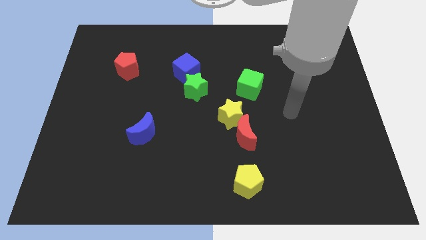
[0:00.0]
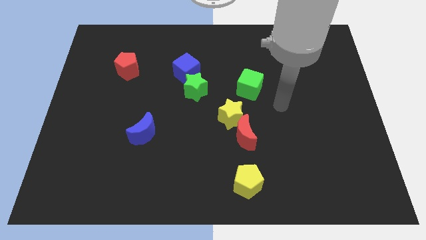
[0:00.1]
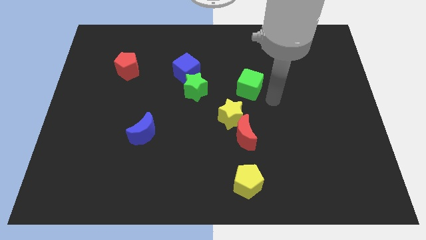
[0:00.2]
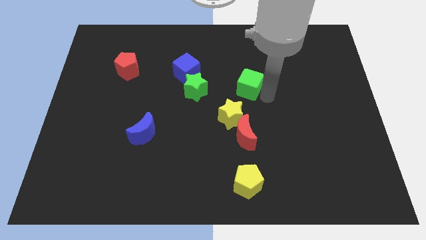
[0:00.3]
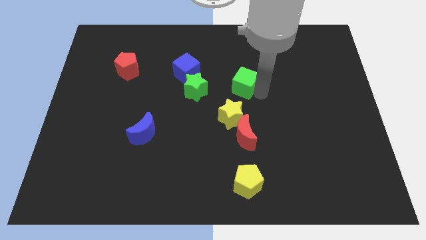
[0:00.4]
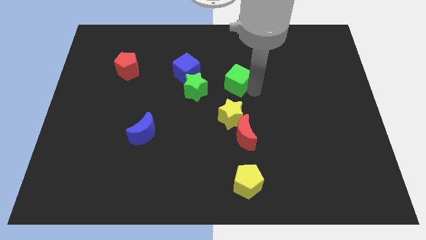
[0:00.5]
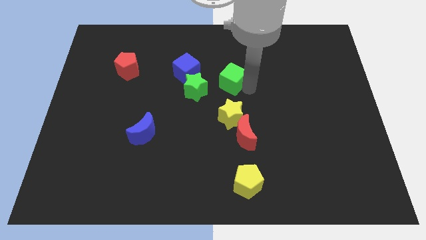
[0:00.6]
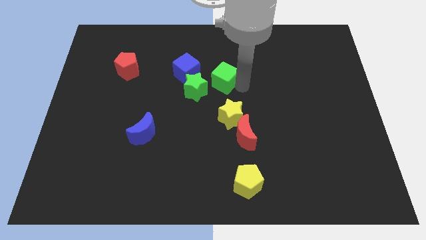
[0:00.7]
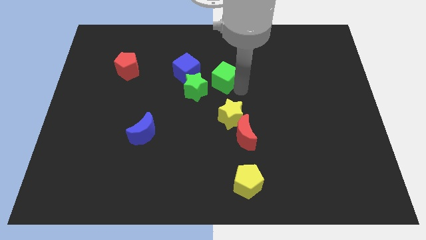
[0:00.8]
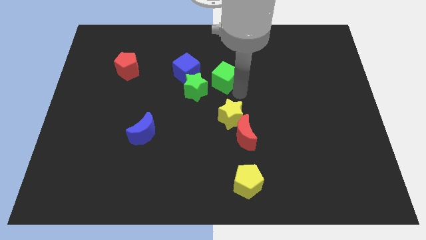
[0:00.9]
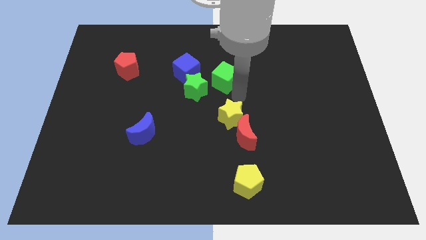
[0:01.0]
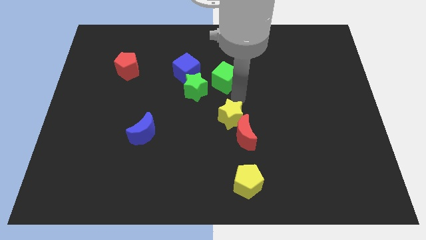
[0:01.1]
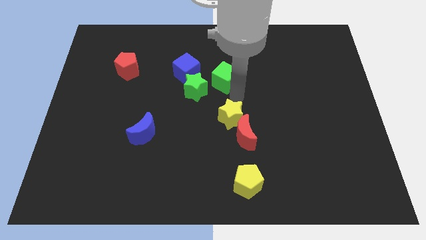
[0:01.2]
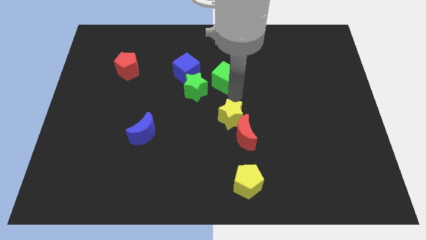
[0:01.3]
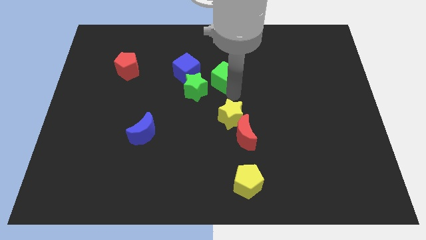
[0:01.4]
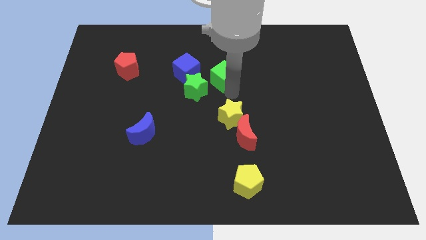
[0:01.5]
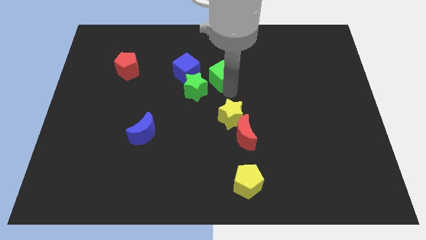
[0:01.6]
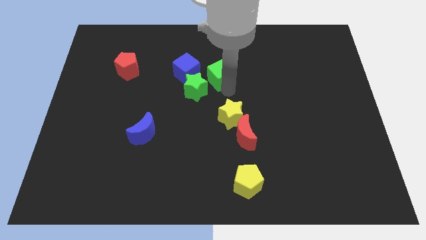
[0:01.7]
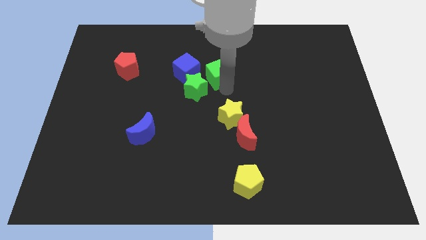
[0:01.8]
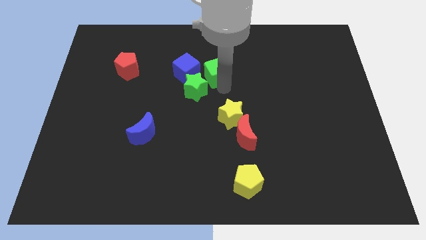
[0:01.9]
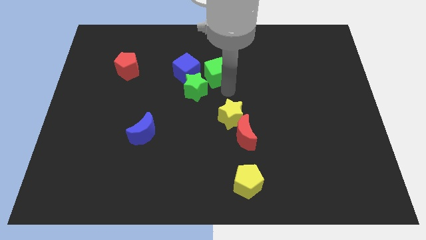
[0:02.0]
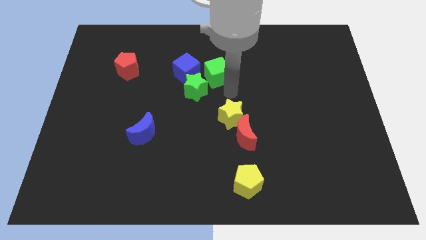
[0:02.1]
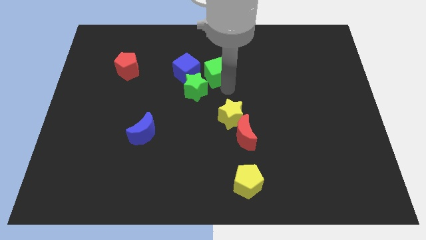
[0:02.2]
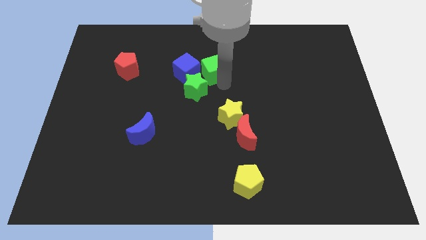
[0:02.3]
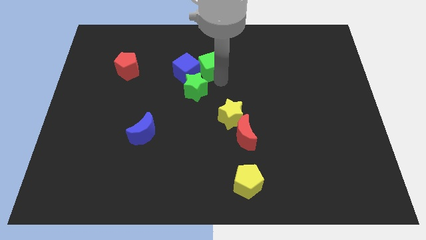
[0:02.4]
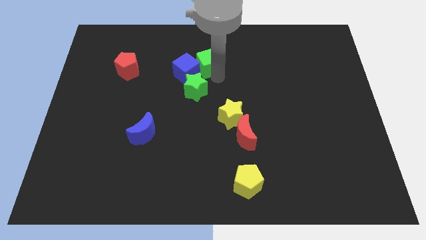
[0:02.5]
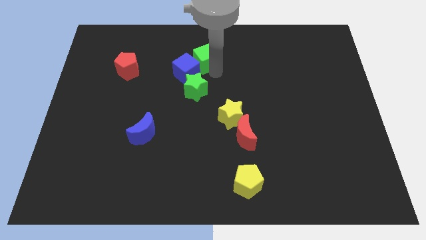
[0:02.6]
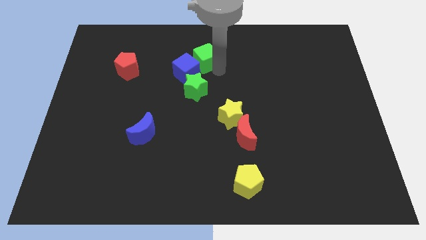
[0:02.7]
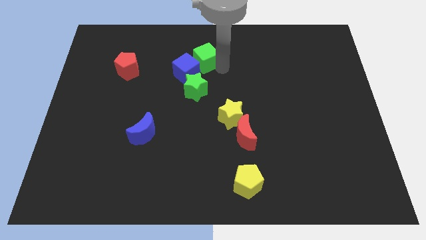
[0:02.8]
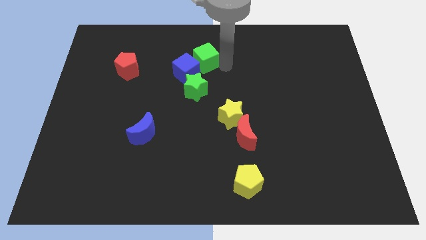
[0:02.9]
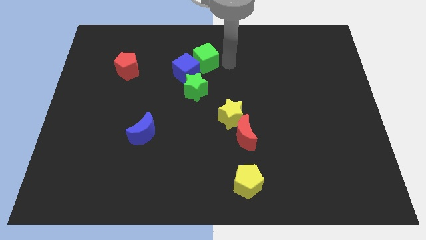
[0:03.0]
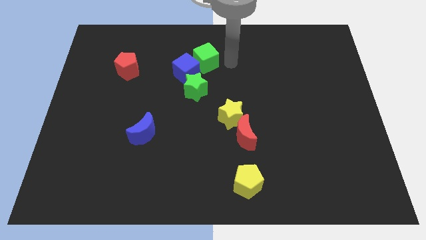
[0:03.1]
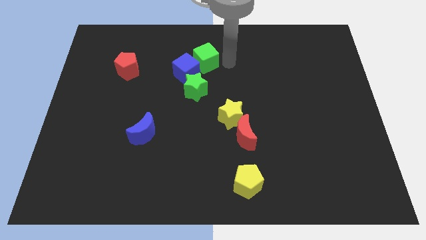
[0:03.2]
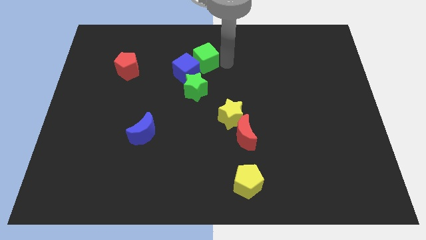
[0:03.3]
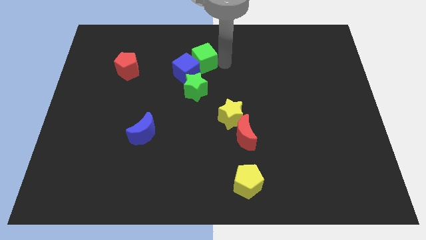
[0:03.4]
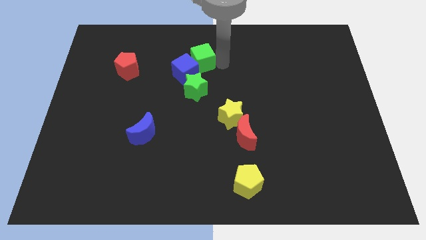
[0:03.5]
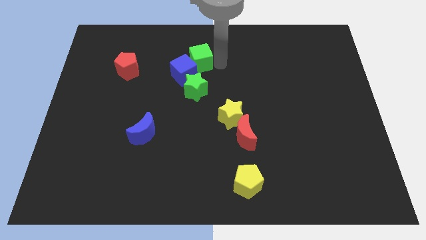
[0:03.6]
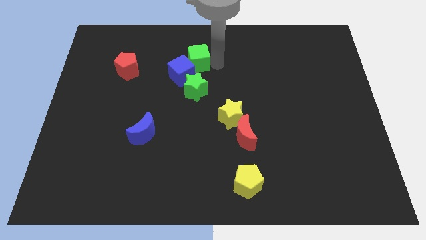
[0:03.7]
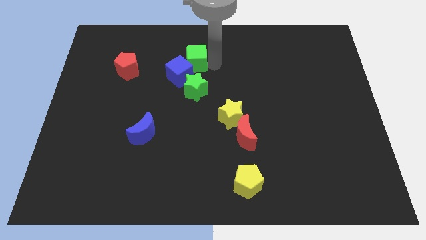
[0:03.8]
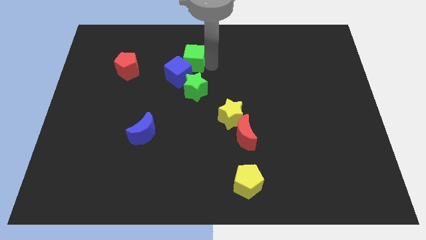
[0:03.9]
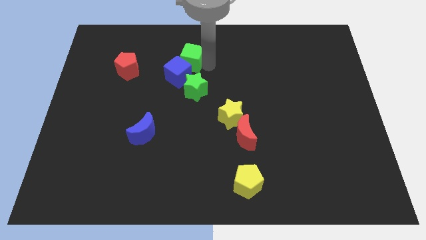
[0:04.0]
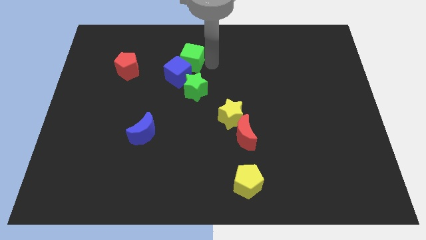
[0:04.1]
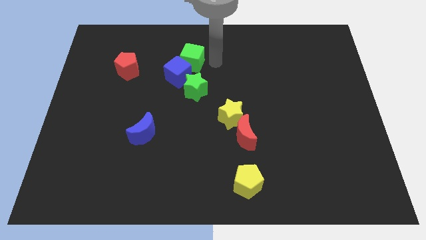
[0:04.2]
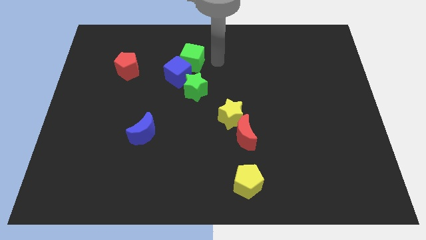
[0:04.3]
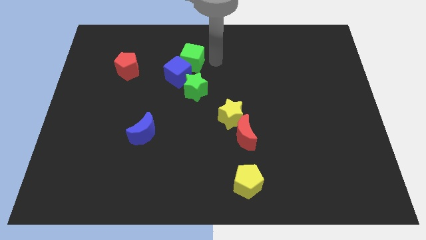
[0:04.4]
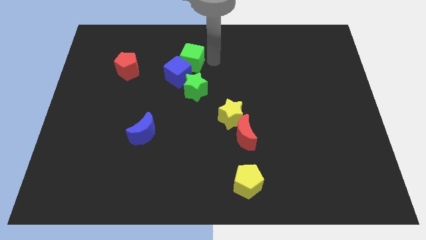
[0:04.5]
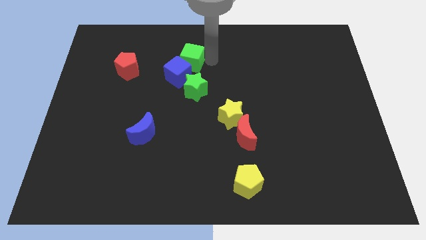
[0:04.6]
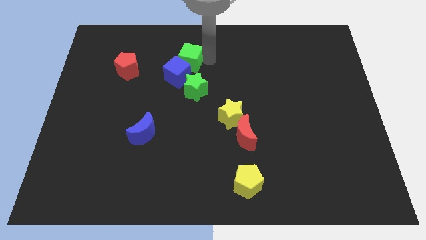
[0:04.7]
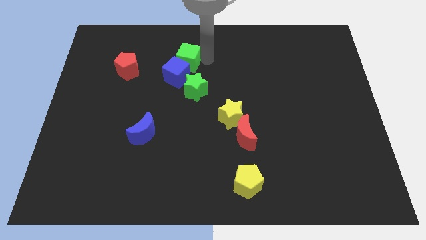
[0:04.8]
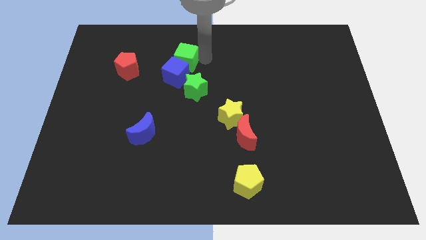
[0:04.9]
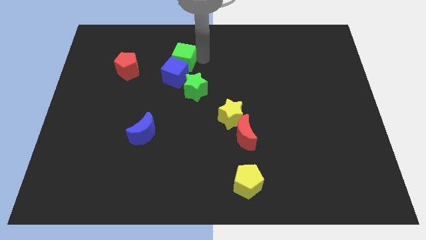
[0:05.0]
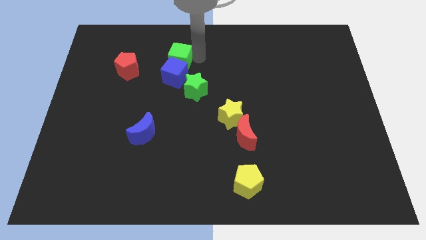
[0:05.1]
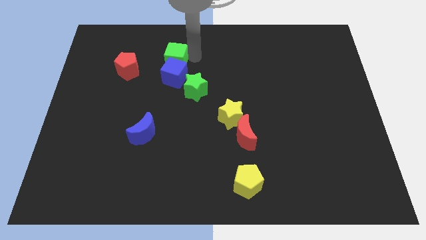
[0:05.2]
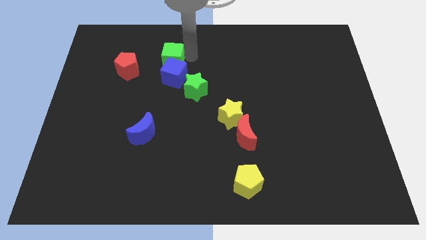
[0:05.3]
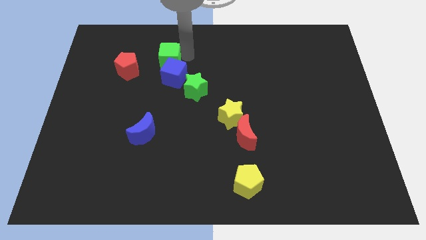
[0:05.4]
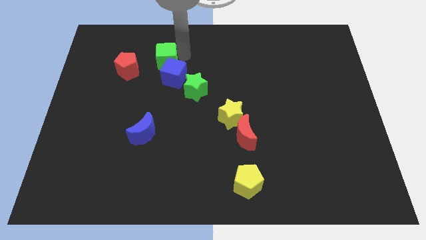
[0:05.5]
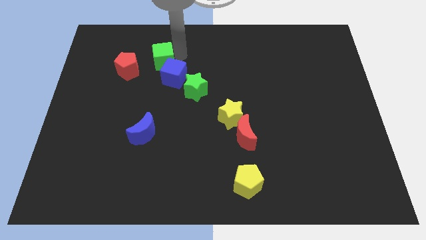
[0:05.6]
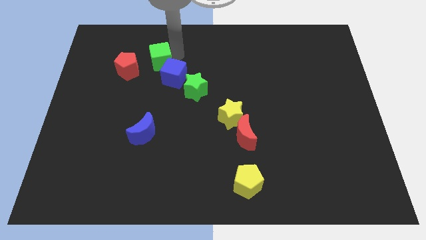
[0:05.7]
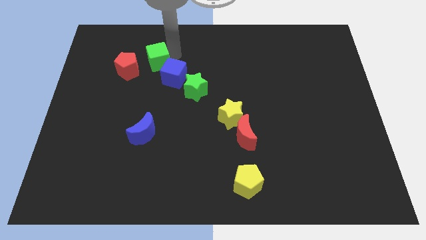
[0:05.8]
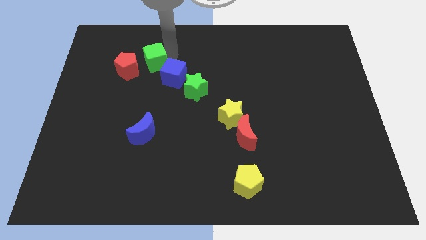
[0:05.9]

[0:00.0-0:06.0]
push the green cube left

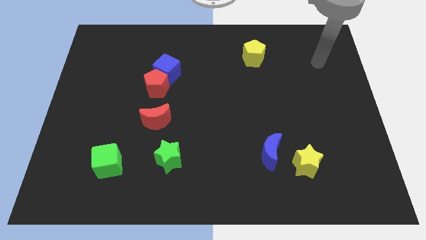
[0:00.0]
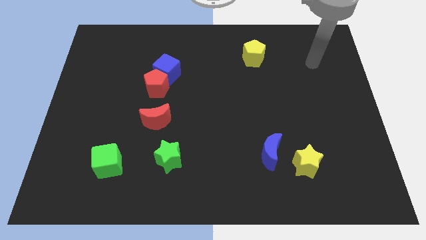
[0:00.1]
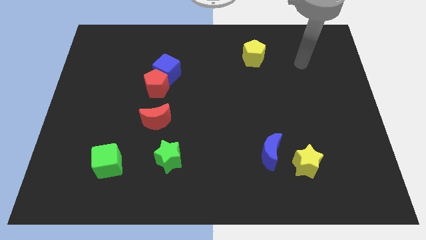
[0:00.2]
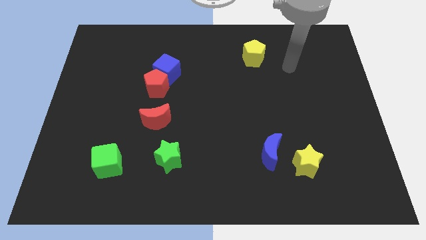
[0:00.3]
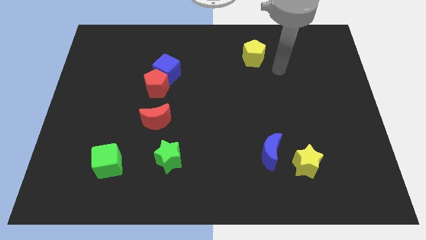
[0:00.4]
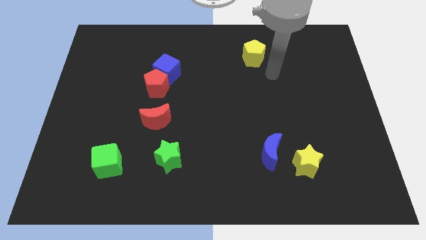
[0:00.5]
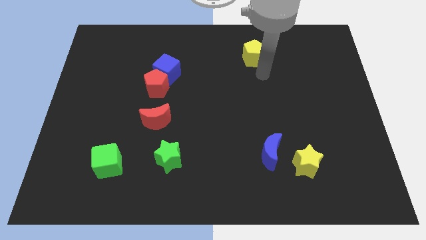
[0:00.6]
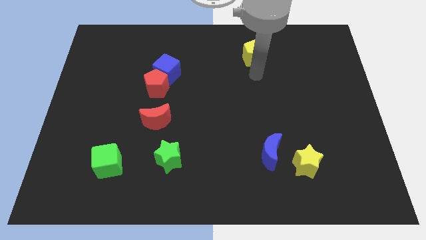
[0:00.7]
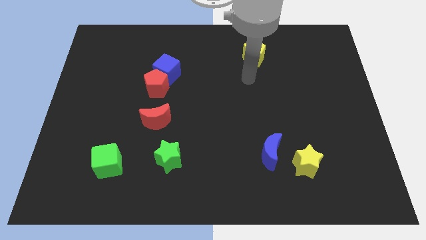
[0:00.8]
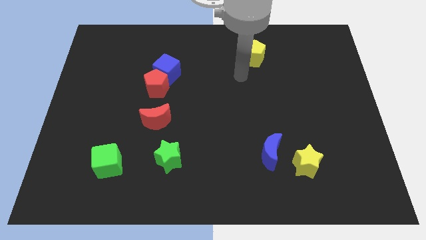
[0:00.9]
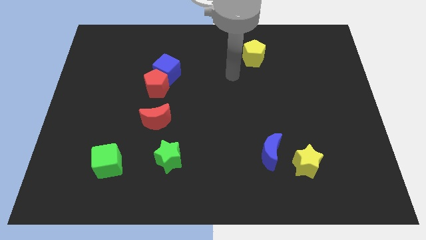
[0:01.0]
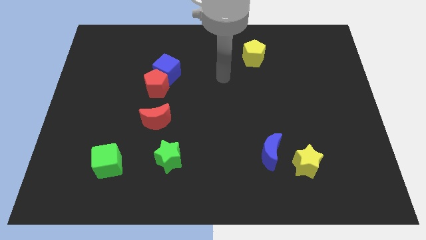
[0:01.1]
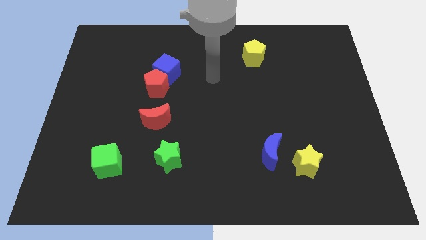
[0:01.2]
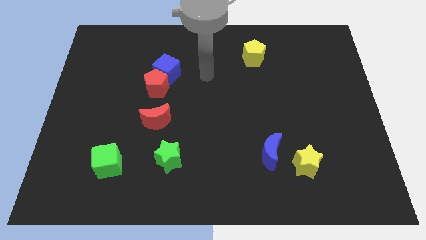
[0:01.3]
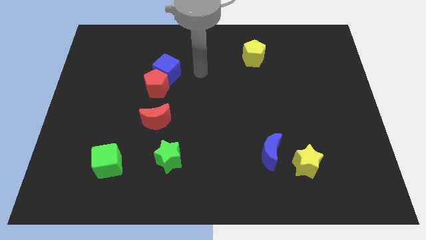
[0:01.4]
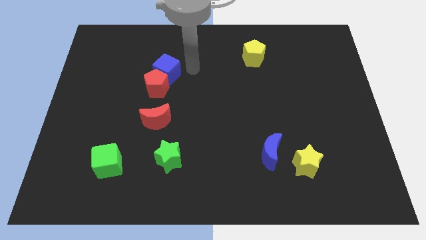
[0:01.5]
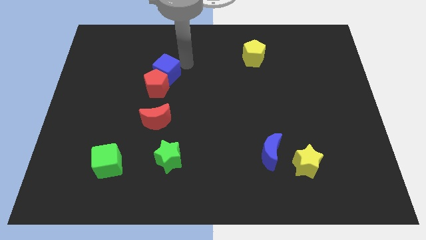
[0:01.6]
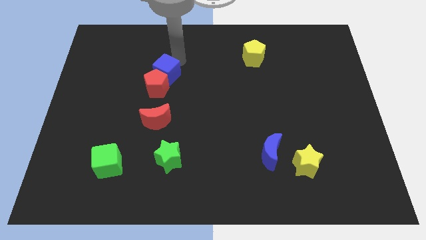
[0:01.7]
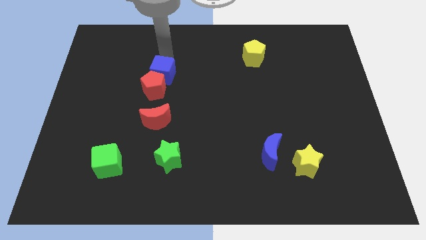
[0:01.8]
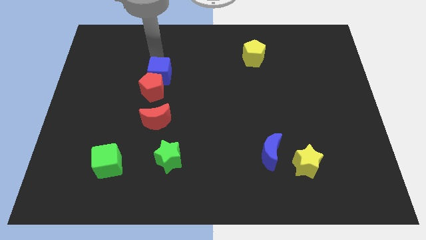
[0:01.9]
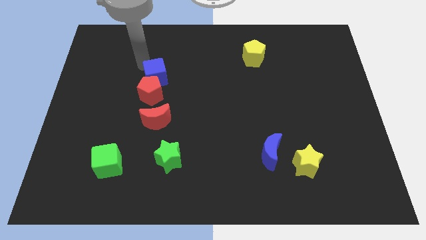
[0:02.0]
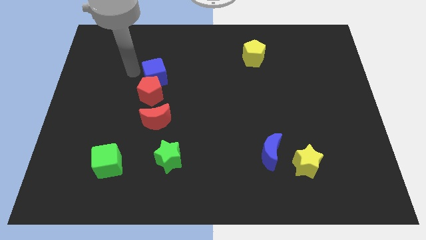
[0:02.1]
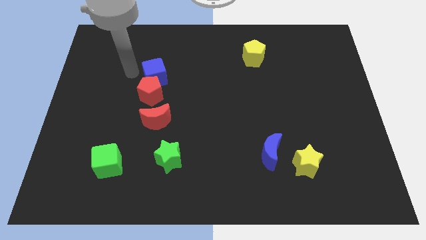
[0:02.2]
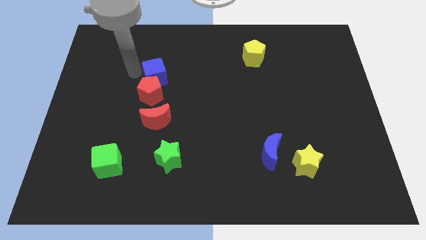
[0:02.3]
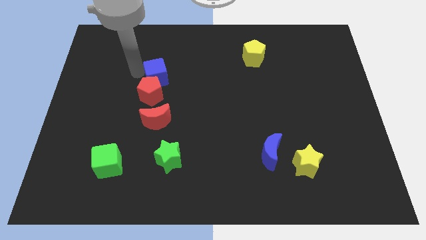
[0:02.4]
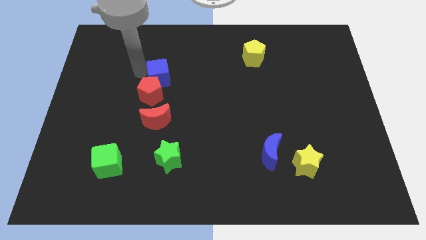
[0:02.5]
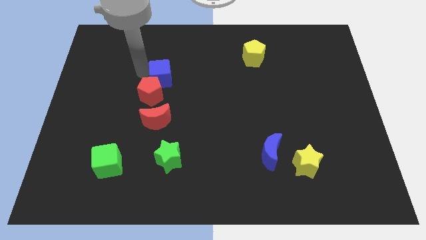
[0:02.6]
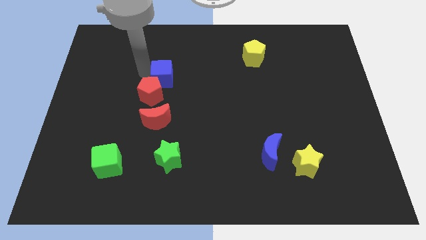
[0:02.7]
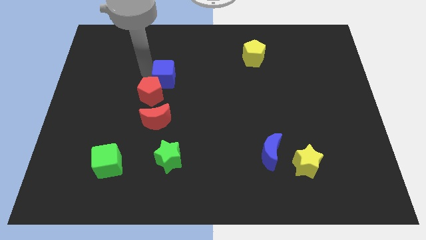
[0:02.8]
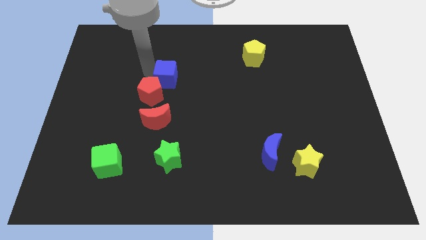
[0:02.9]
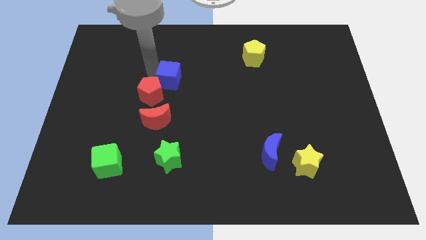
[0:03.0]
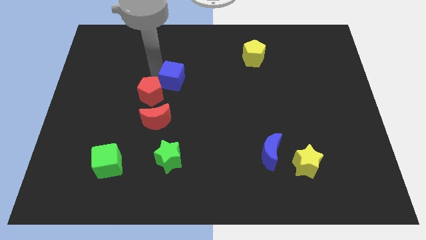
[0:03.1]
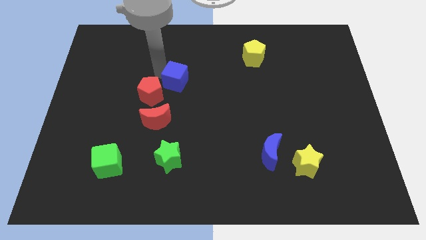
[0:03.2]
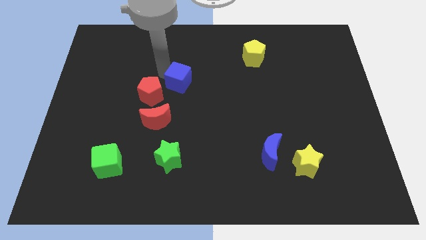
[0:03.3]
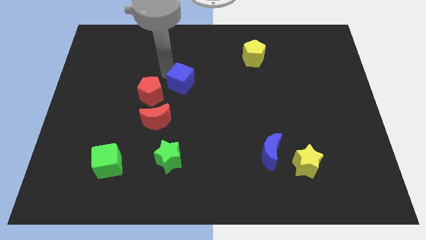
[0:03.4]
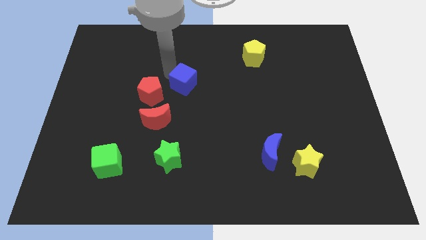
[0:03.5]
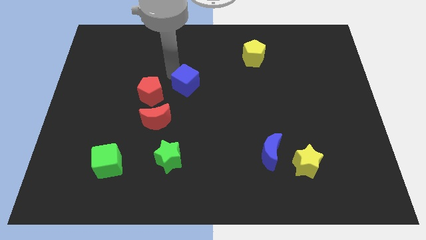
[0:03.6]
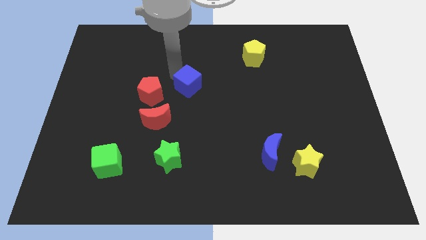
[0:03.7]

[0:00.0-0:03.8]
slightly slide the blue cube downwards and to the right
